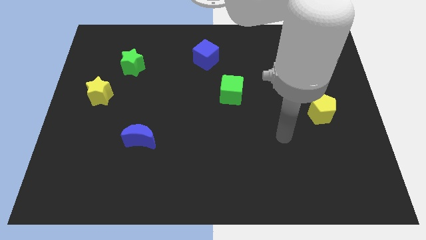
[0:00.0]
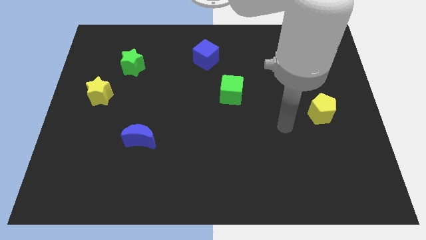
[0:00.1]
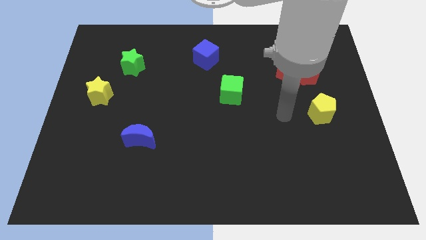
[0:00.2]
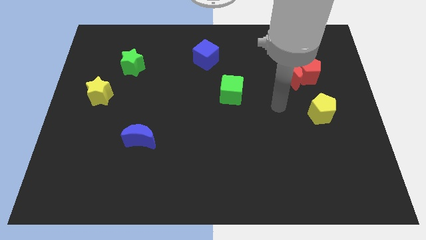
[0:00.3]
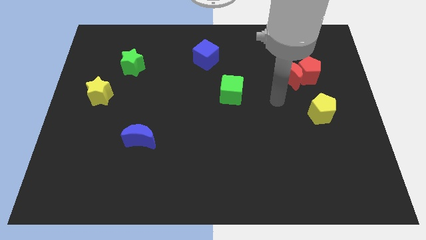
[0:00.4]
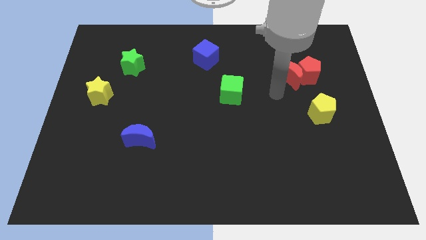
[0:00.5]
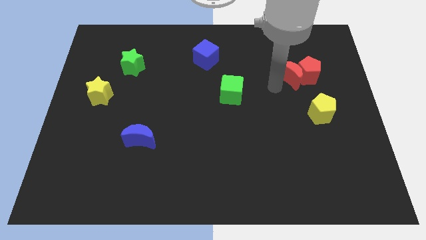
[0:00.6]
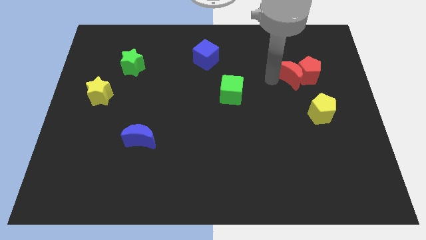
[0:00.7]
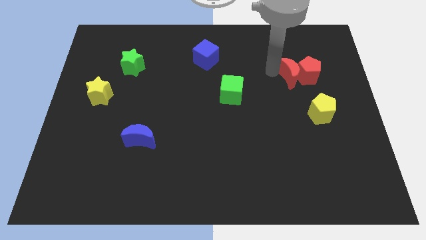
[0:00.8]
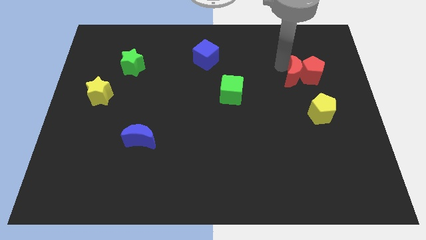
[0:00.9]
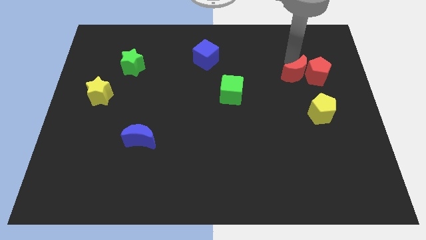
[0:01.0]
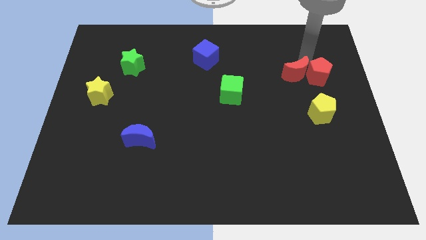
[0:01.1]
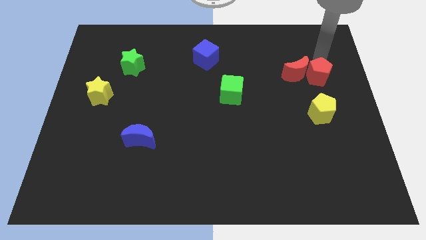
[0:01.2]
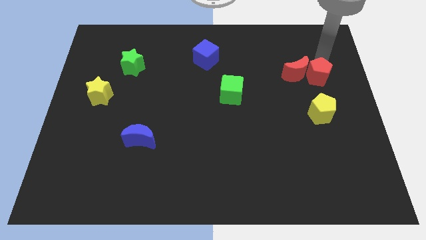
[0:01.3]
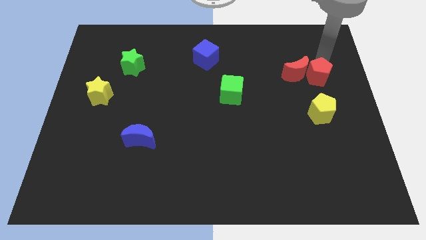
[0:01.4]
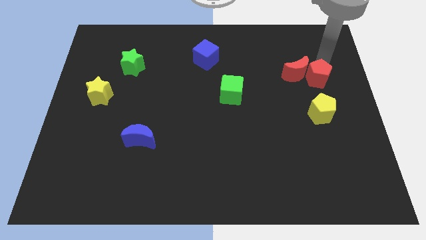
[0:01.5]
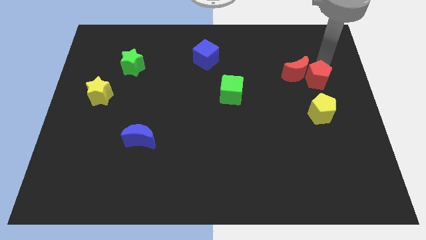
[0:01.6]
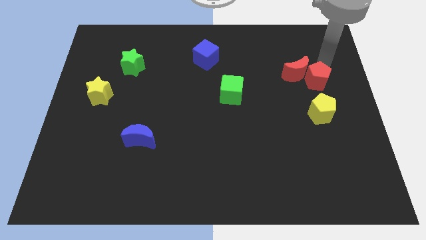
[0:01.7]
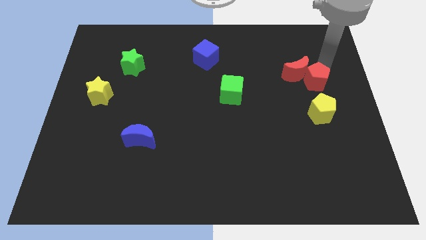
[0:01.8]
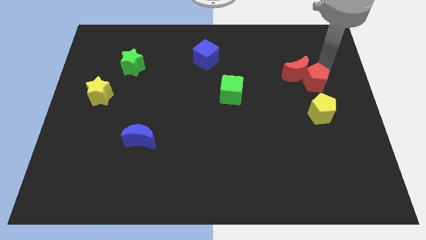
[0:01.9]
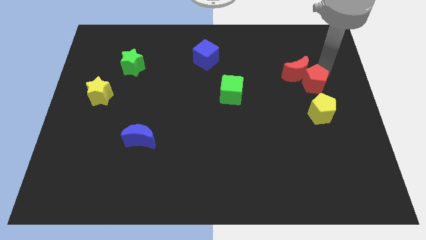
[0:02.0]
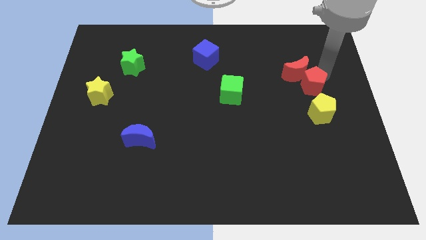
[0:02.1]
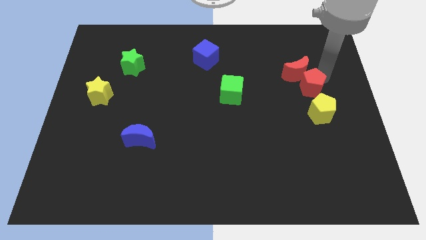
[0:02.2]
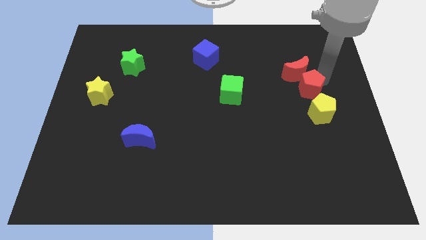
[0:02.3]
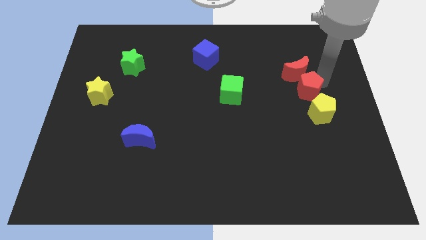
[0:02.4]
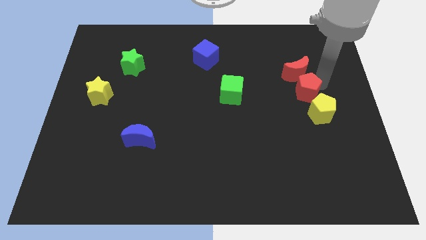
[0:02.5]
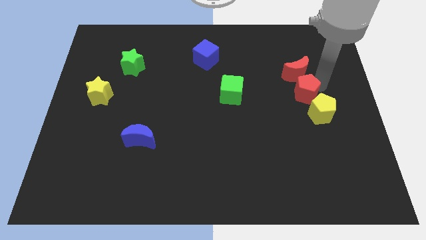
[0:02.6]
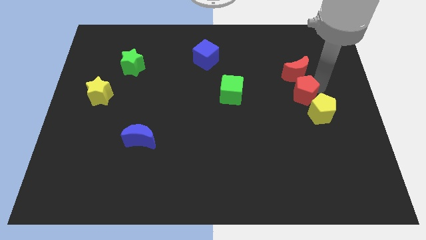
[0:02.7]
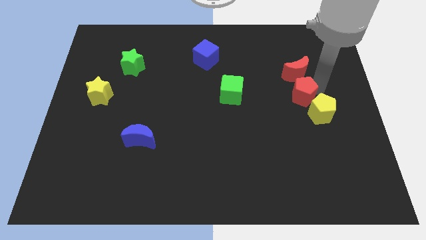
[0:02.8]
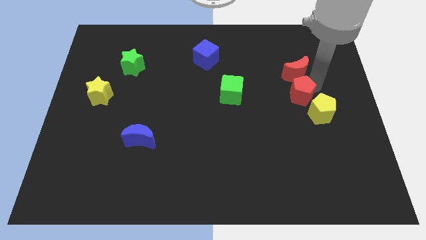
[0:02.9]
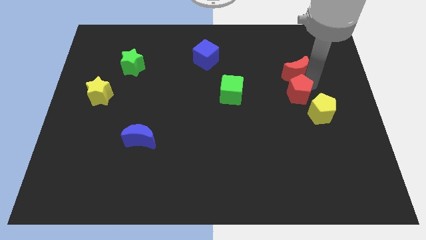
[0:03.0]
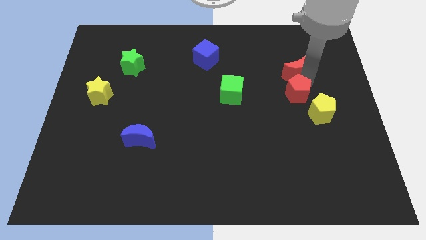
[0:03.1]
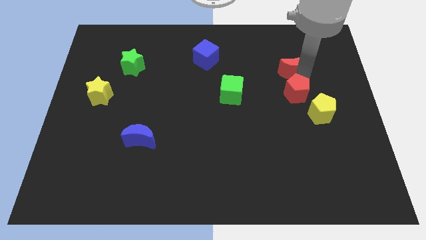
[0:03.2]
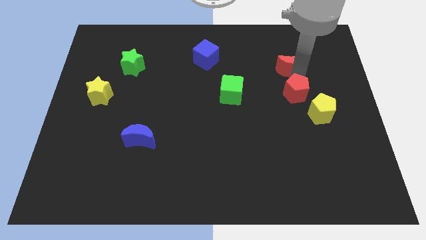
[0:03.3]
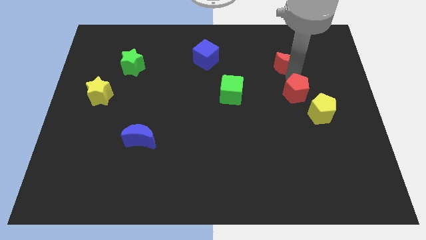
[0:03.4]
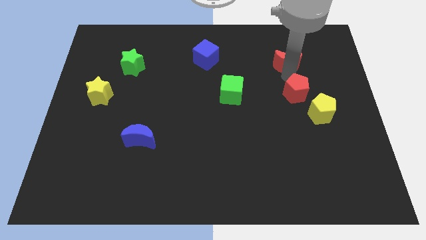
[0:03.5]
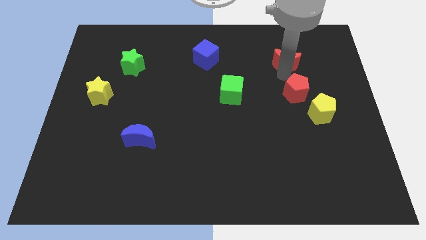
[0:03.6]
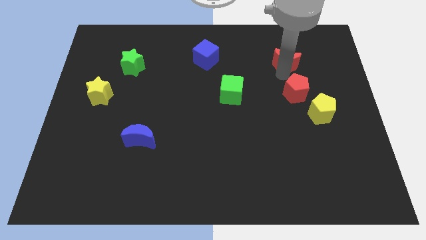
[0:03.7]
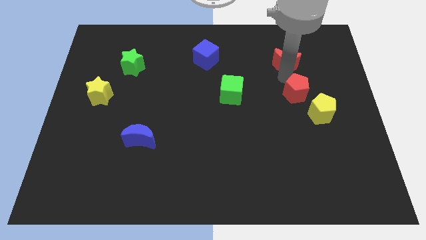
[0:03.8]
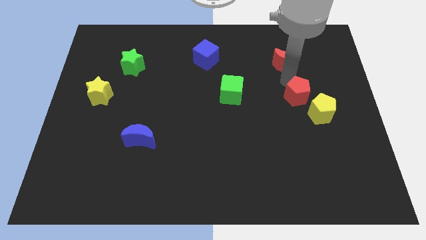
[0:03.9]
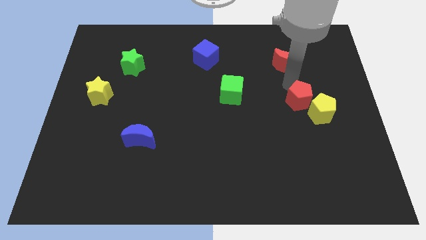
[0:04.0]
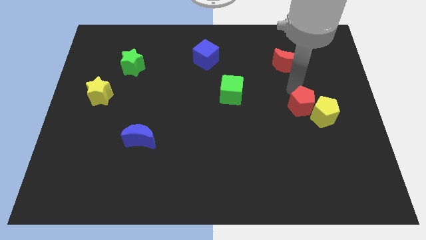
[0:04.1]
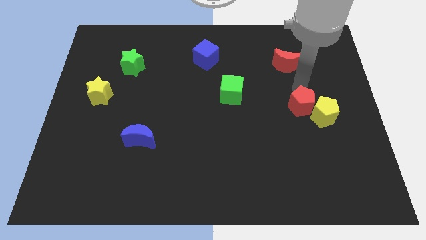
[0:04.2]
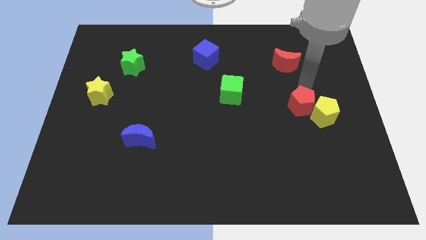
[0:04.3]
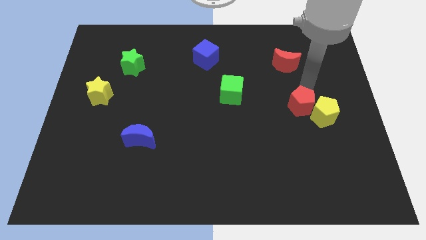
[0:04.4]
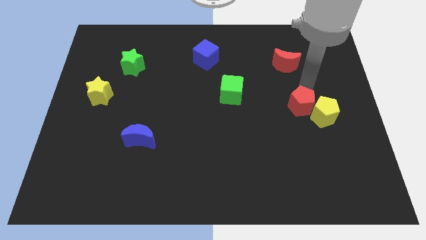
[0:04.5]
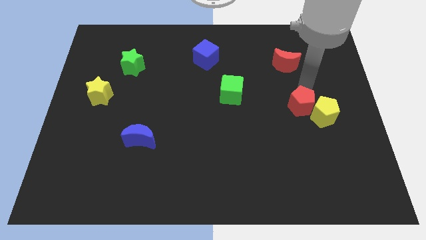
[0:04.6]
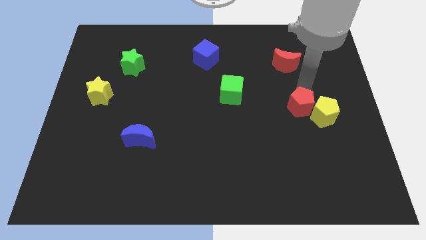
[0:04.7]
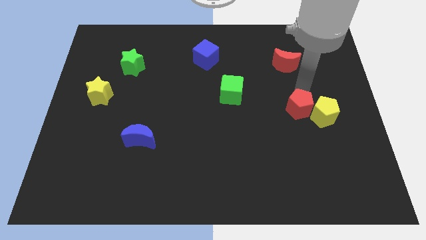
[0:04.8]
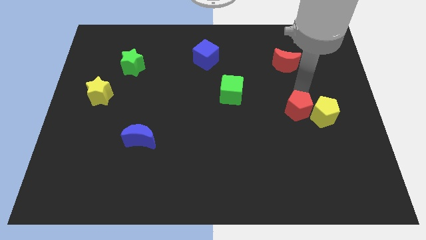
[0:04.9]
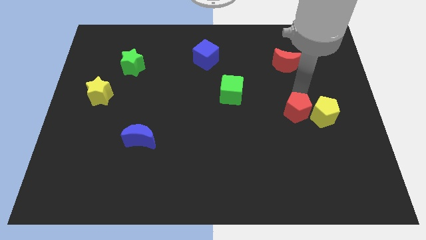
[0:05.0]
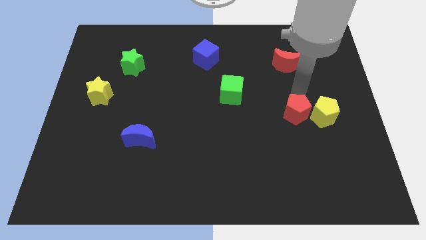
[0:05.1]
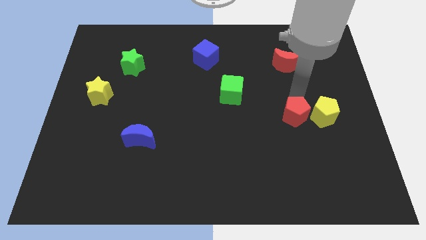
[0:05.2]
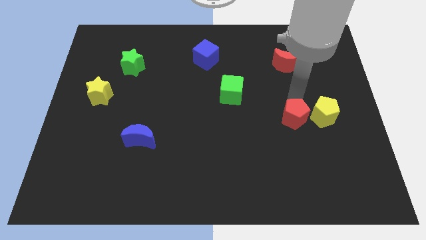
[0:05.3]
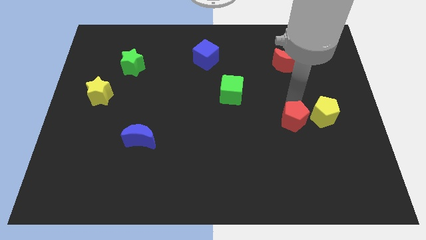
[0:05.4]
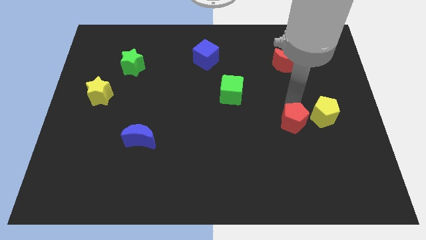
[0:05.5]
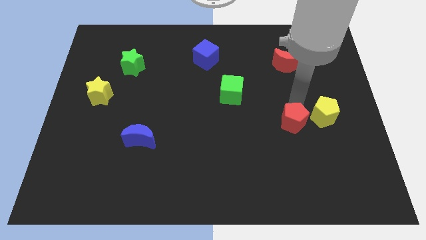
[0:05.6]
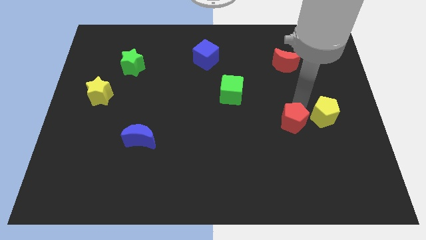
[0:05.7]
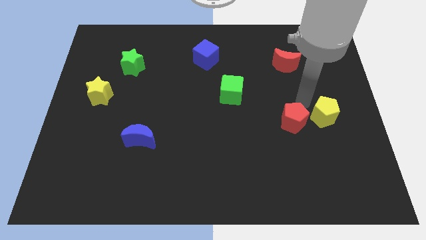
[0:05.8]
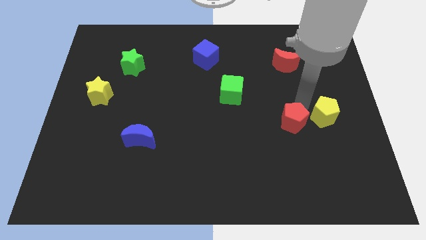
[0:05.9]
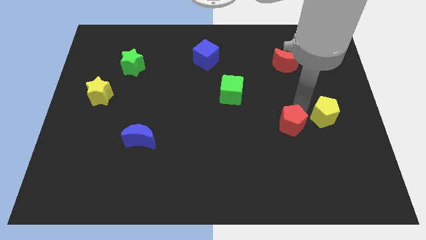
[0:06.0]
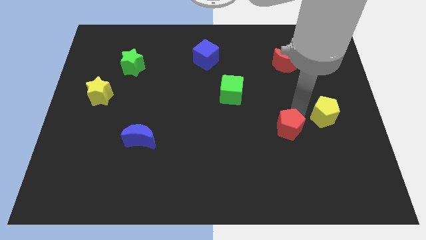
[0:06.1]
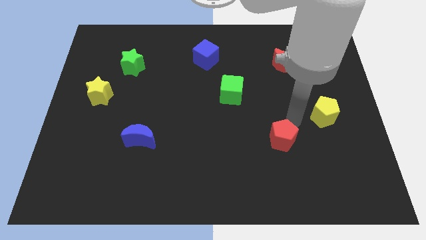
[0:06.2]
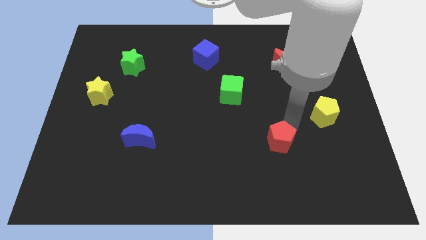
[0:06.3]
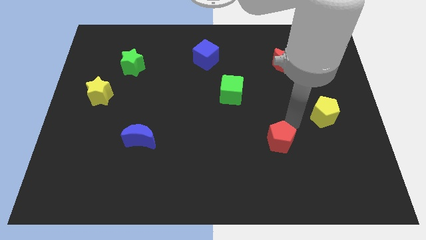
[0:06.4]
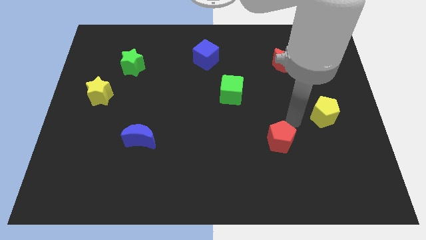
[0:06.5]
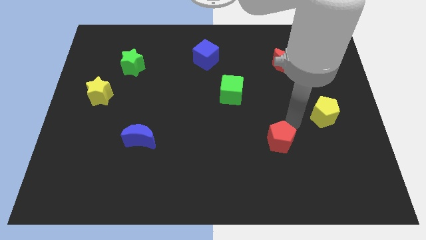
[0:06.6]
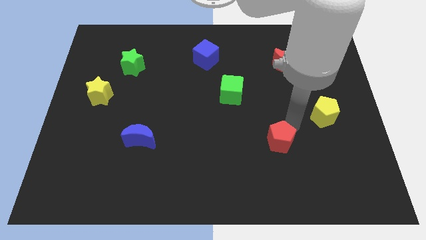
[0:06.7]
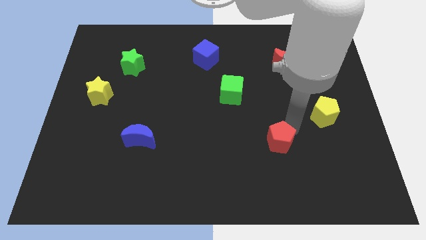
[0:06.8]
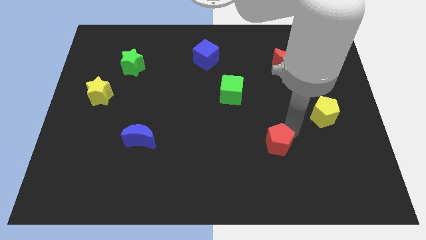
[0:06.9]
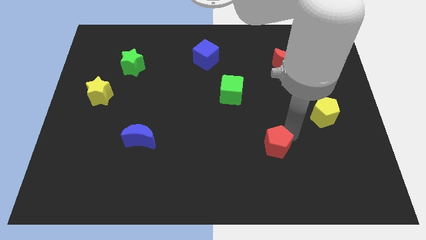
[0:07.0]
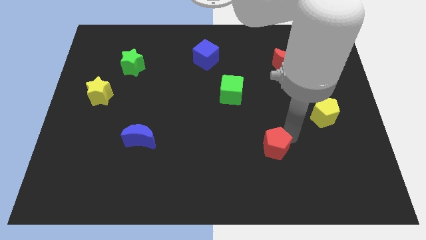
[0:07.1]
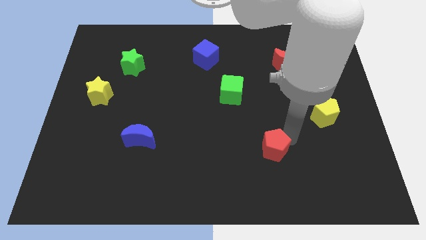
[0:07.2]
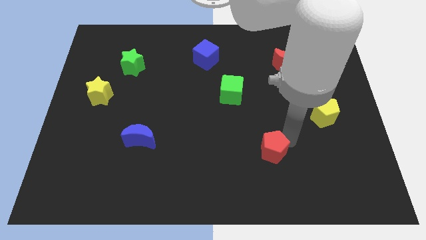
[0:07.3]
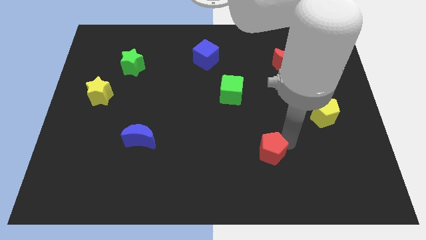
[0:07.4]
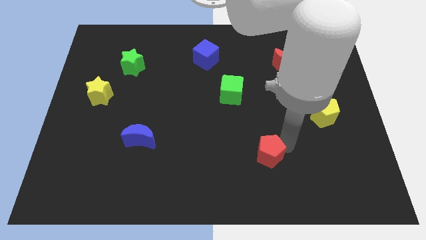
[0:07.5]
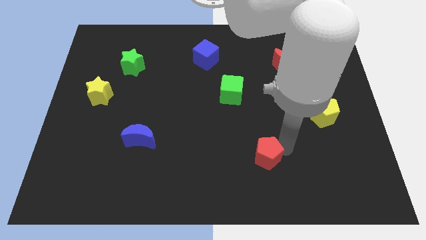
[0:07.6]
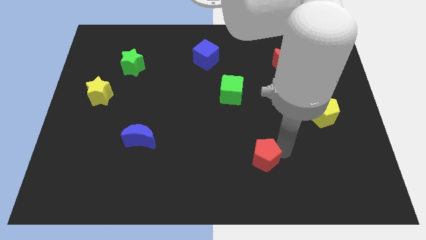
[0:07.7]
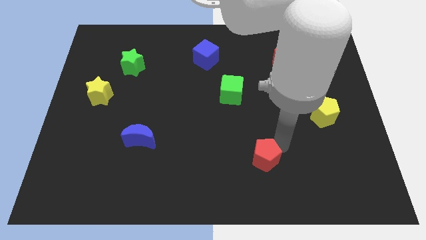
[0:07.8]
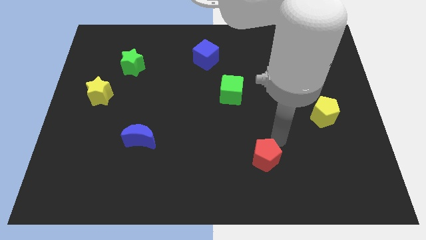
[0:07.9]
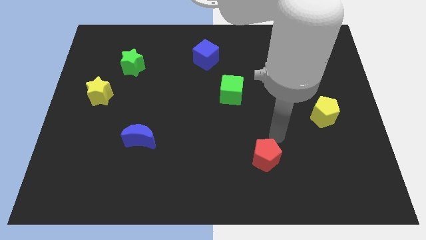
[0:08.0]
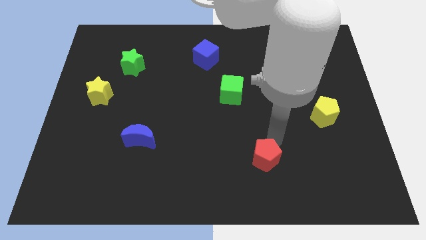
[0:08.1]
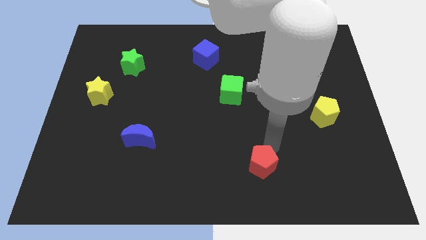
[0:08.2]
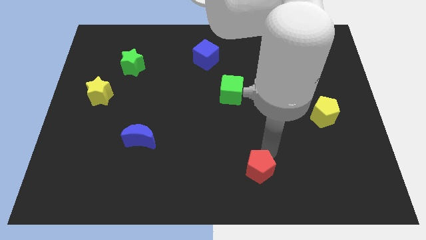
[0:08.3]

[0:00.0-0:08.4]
put the red pentagon to the bottom
